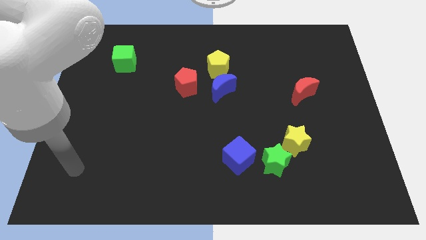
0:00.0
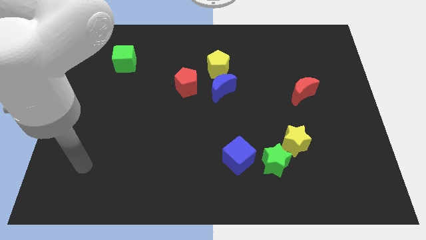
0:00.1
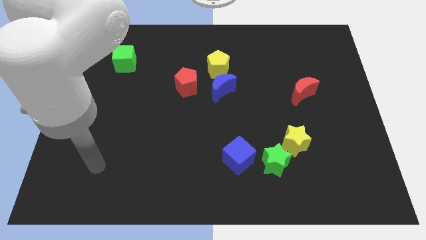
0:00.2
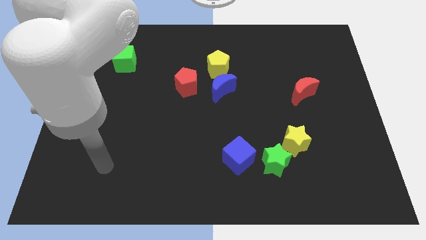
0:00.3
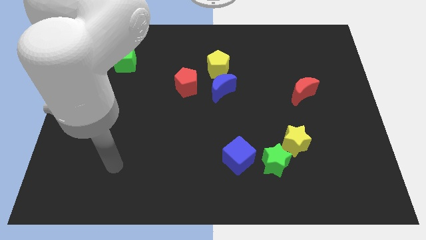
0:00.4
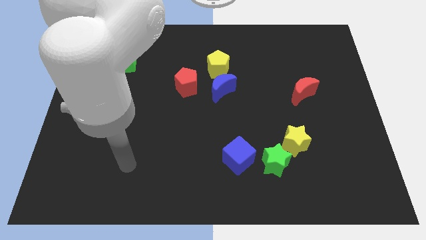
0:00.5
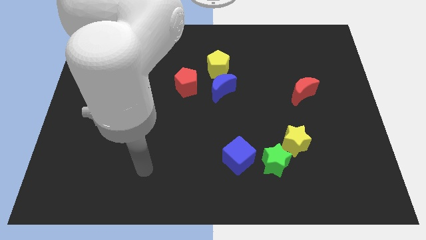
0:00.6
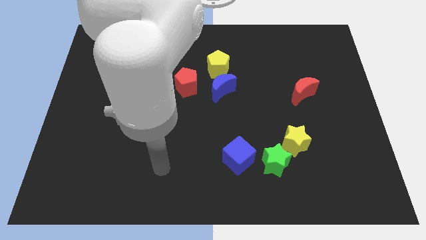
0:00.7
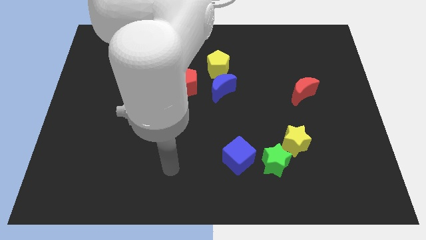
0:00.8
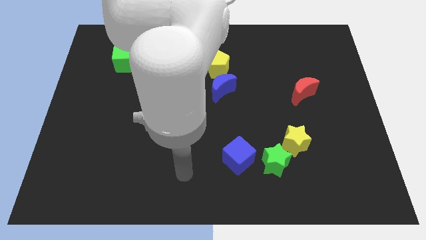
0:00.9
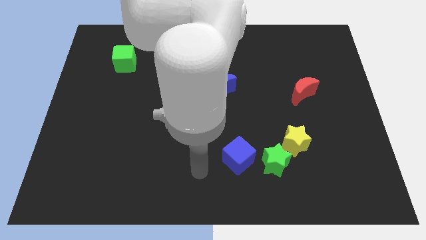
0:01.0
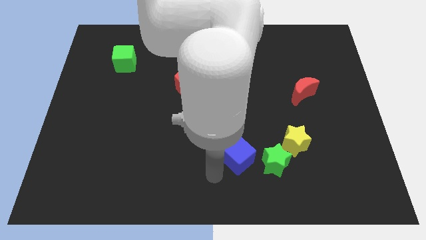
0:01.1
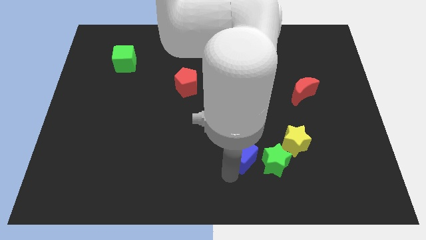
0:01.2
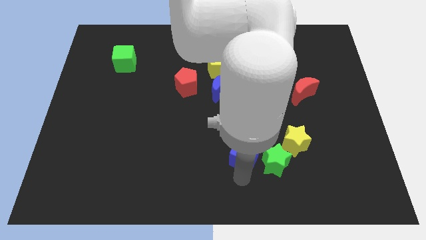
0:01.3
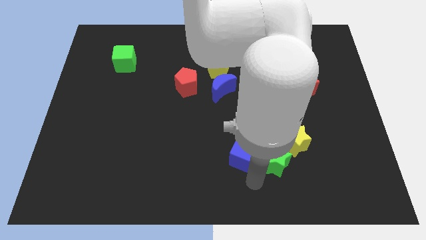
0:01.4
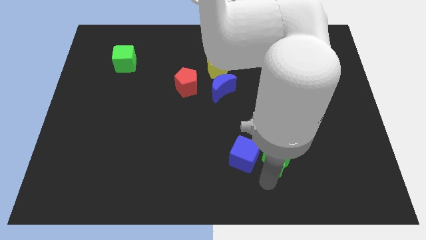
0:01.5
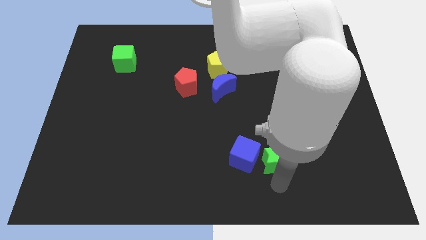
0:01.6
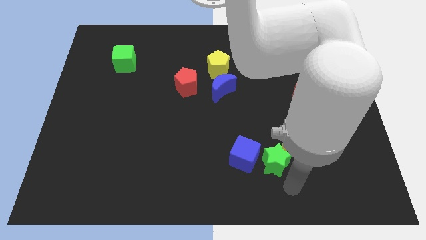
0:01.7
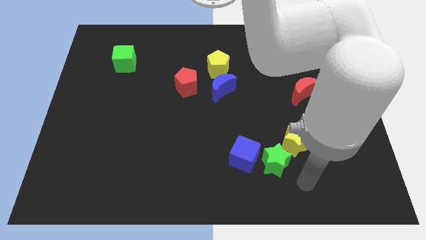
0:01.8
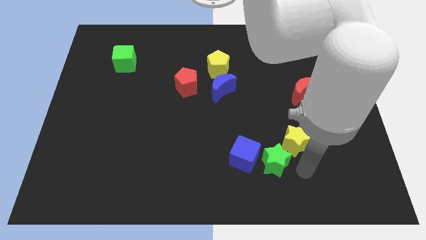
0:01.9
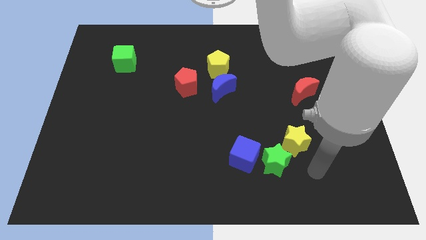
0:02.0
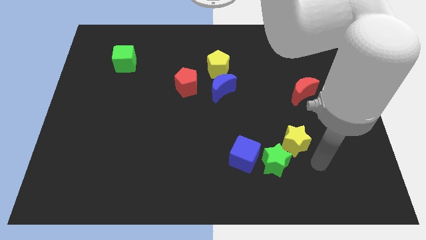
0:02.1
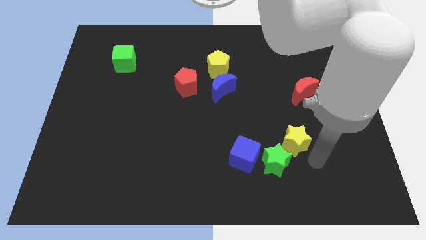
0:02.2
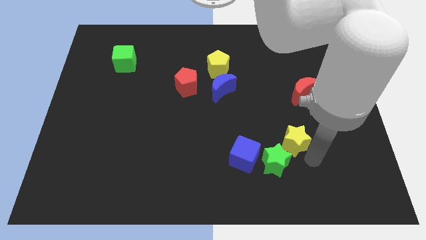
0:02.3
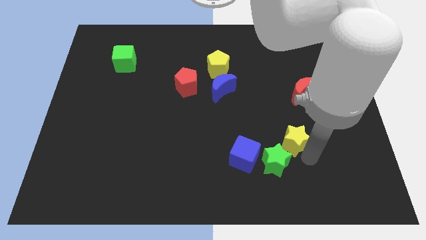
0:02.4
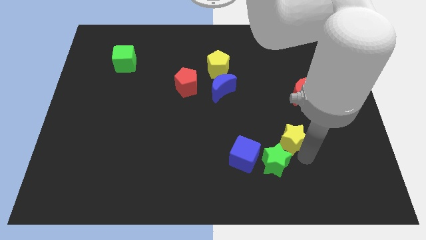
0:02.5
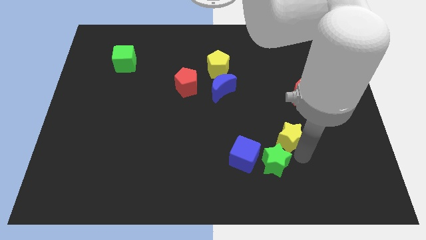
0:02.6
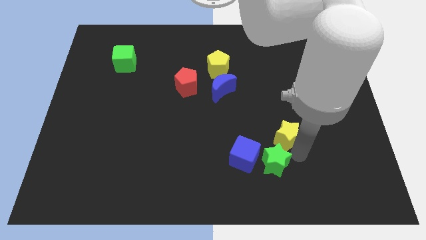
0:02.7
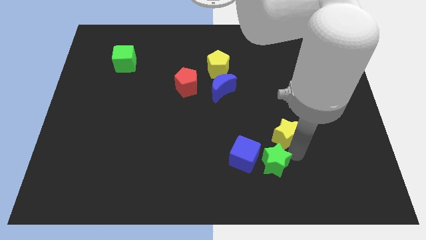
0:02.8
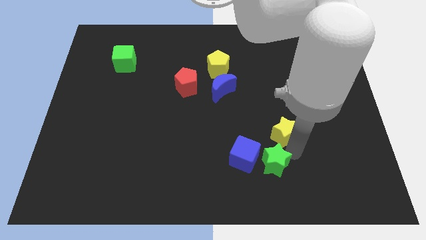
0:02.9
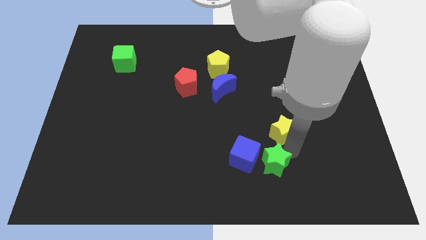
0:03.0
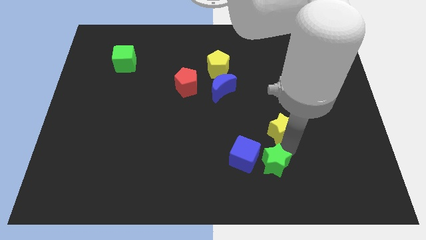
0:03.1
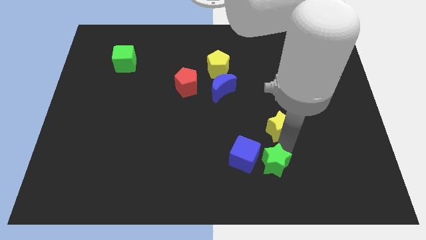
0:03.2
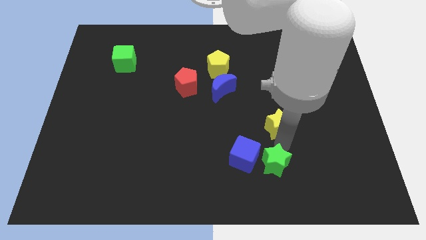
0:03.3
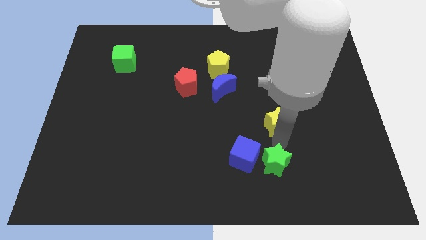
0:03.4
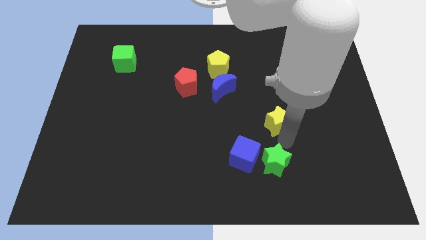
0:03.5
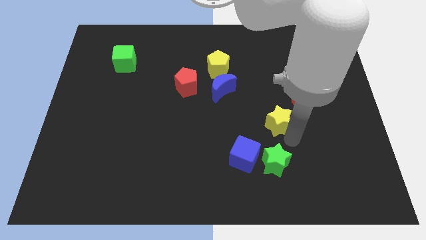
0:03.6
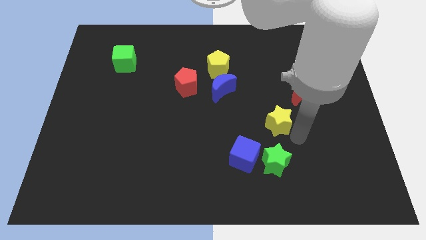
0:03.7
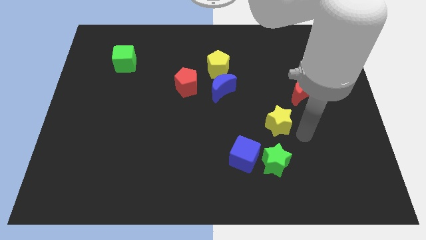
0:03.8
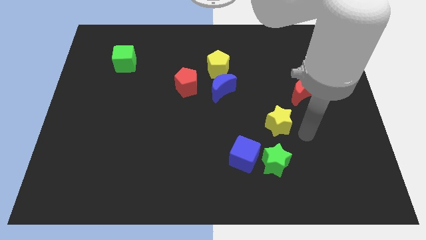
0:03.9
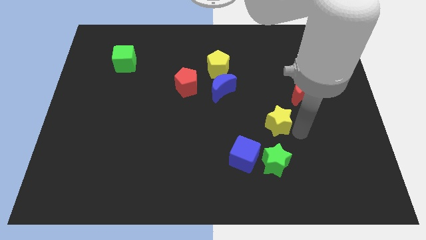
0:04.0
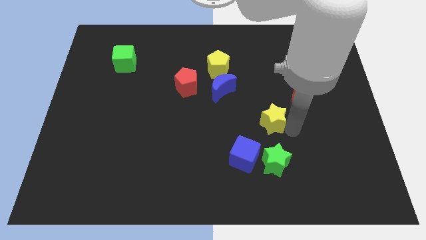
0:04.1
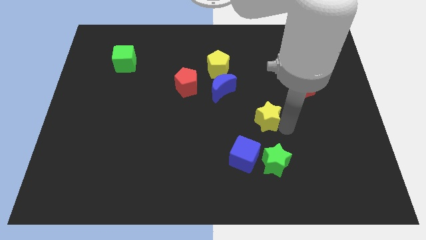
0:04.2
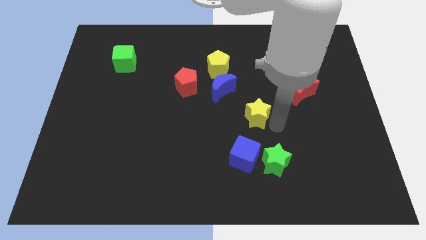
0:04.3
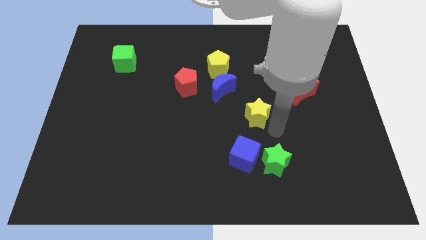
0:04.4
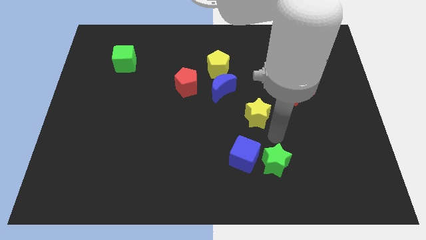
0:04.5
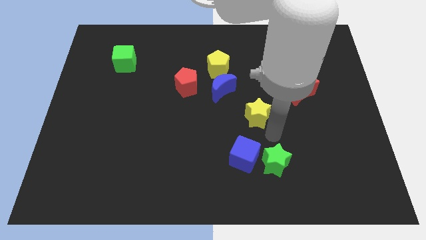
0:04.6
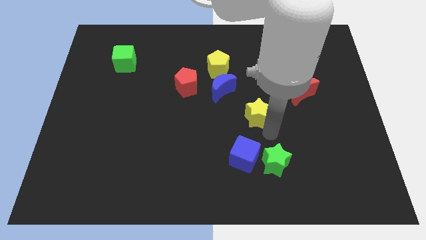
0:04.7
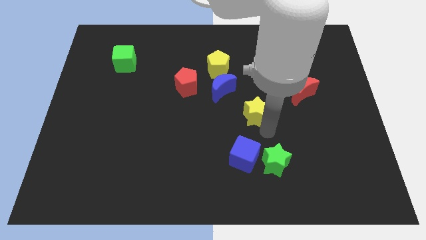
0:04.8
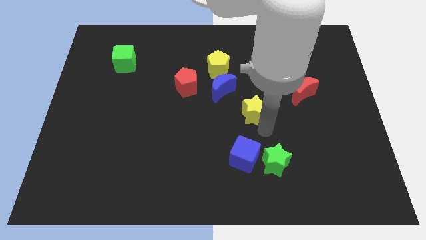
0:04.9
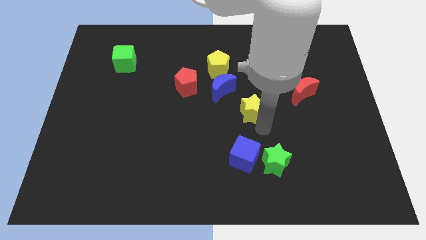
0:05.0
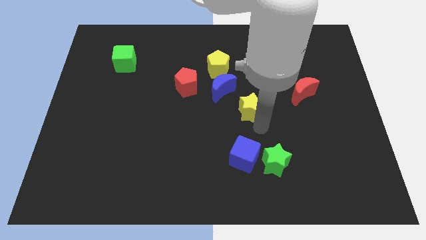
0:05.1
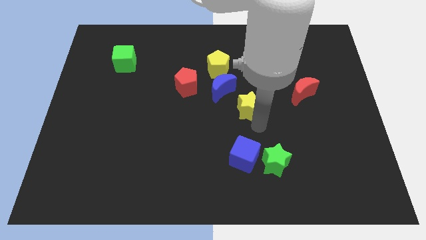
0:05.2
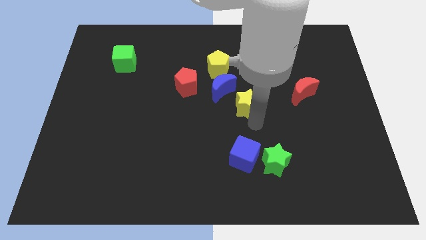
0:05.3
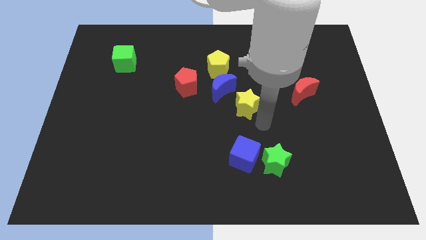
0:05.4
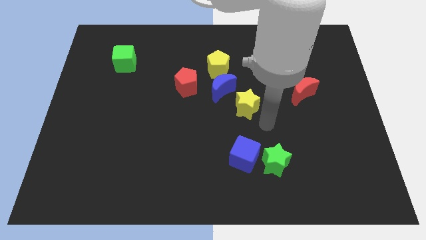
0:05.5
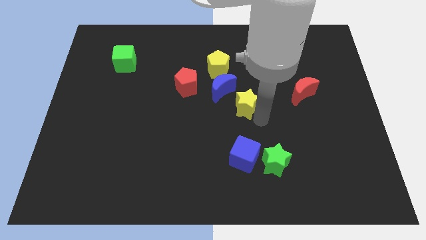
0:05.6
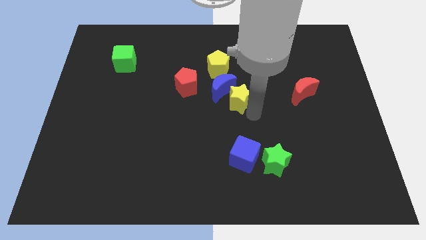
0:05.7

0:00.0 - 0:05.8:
put the yellow star towards the blue moon

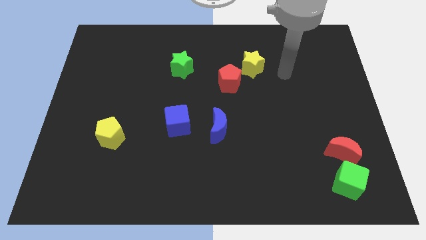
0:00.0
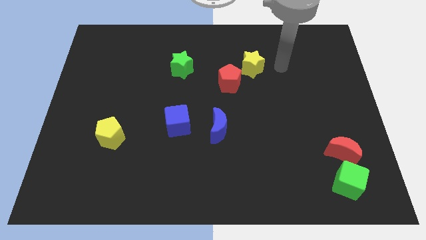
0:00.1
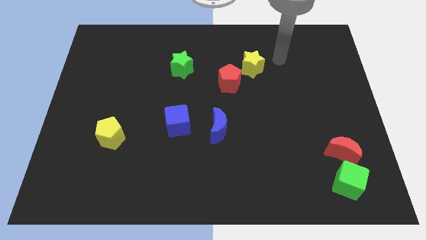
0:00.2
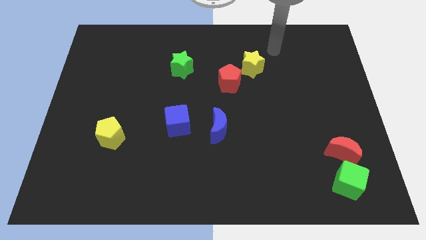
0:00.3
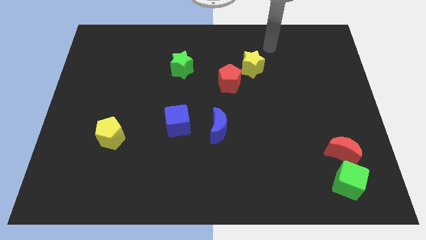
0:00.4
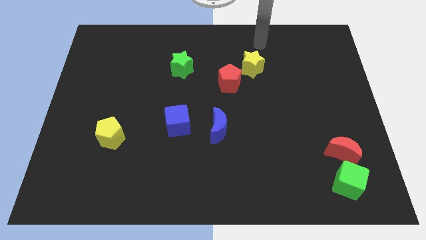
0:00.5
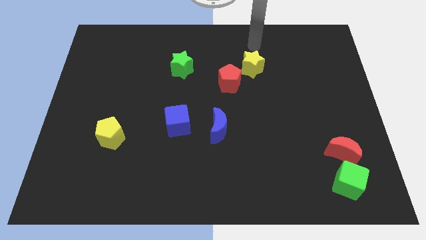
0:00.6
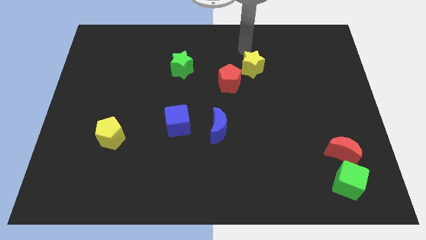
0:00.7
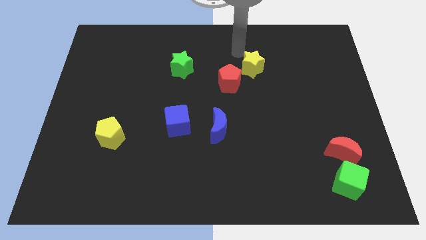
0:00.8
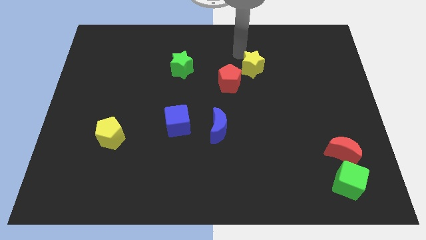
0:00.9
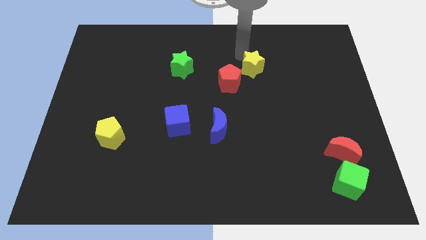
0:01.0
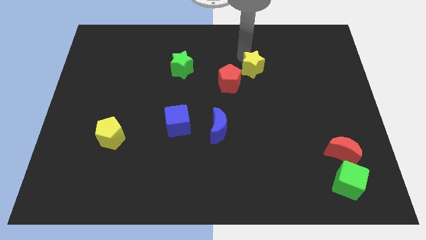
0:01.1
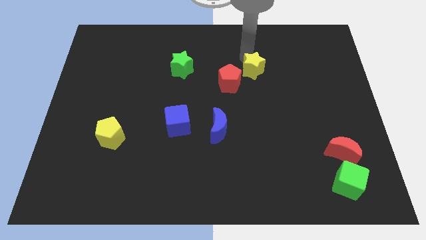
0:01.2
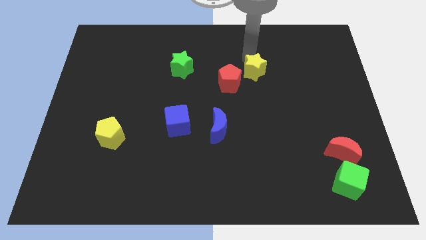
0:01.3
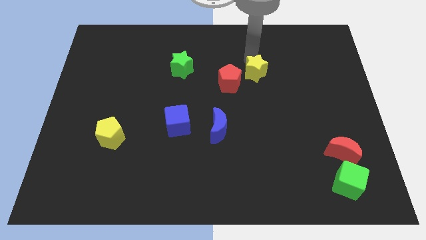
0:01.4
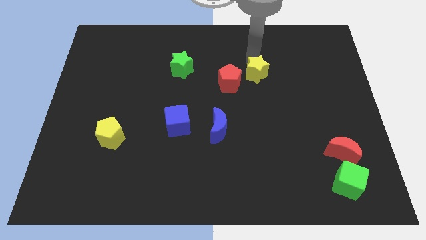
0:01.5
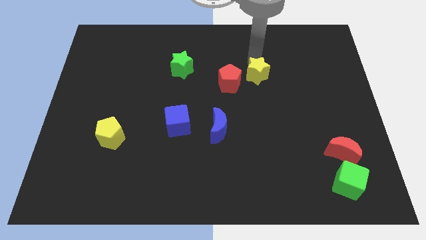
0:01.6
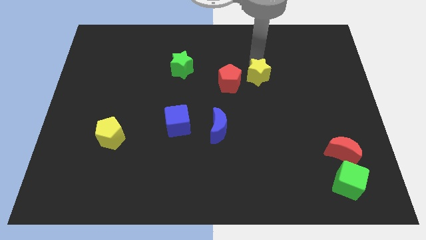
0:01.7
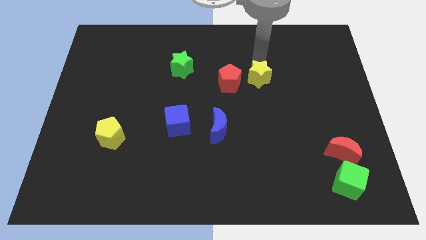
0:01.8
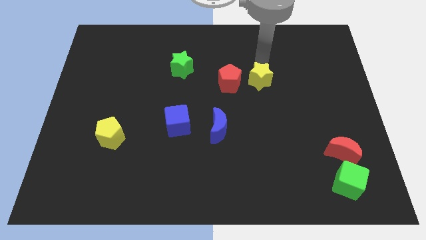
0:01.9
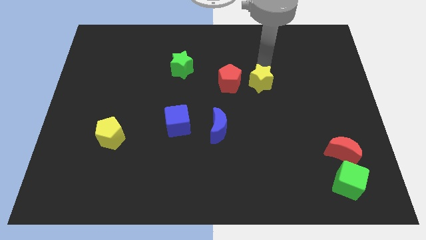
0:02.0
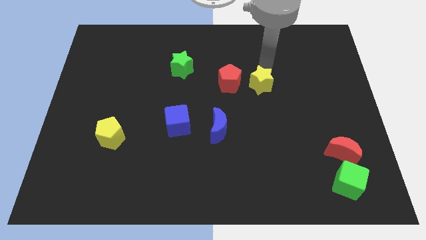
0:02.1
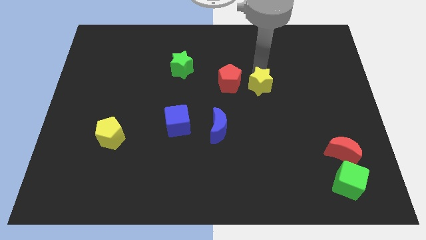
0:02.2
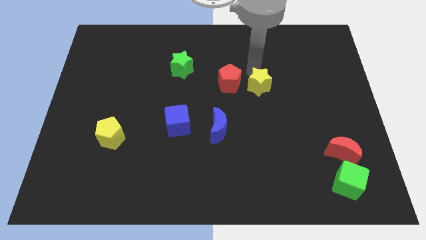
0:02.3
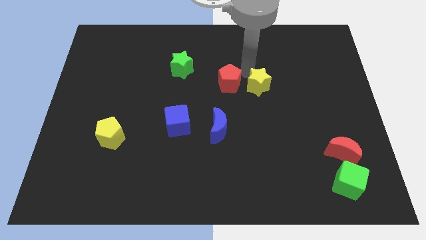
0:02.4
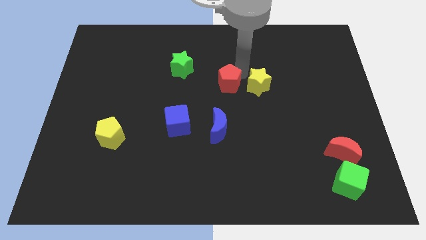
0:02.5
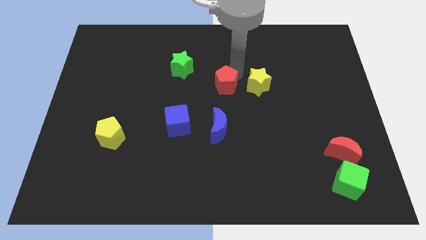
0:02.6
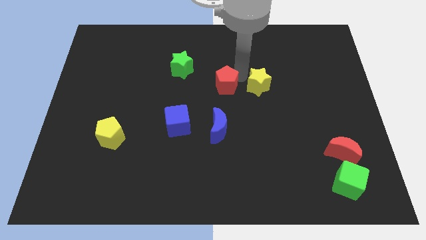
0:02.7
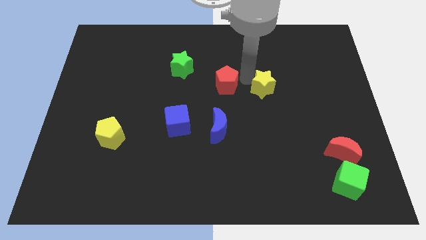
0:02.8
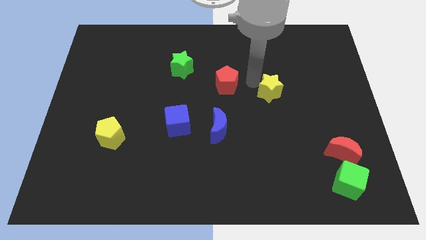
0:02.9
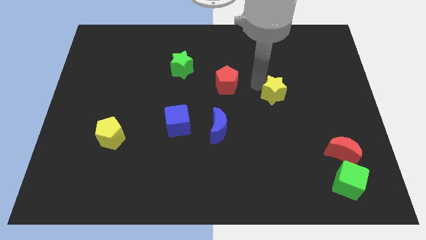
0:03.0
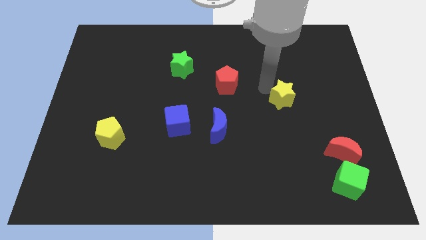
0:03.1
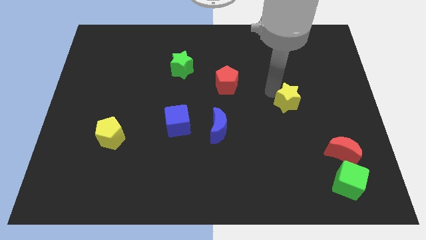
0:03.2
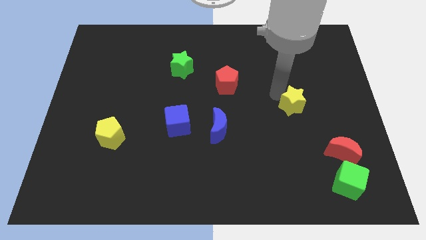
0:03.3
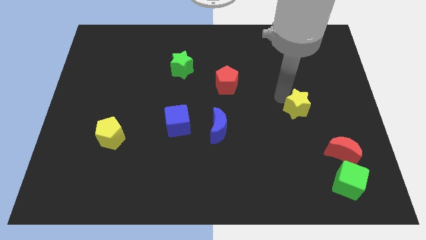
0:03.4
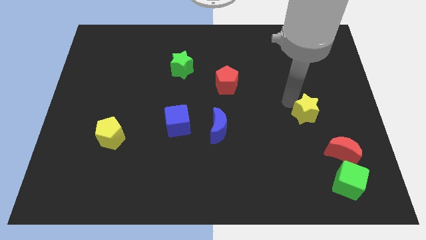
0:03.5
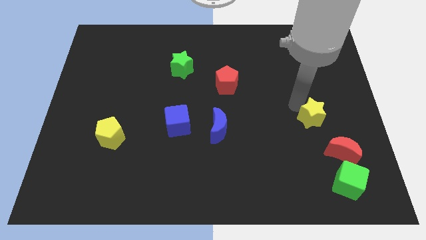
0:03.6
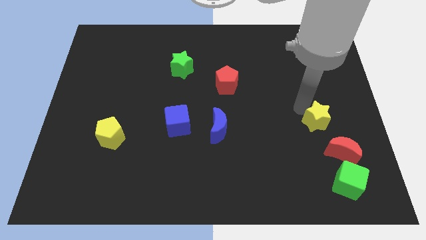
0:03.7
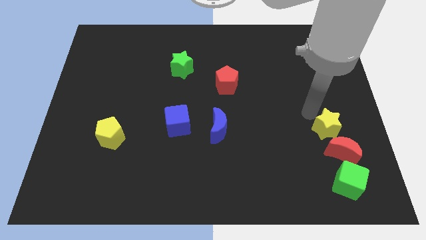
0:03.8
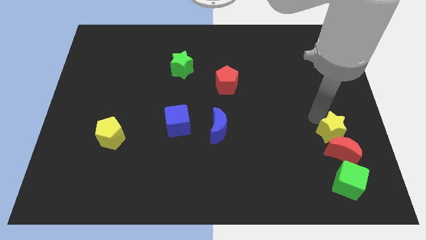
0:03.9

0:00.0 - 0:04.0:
slide the yellow star close to the red moon
